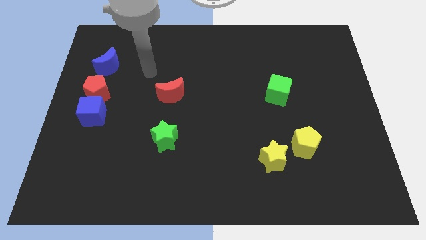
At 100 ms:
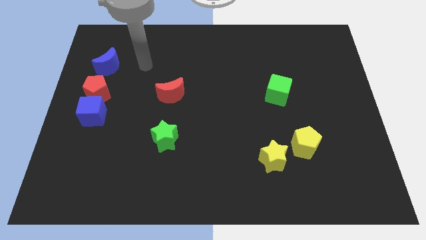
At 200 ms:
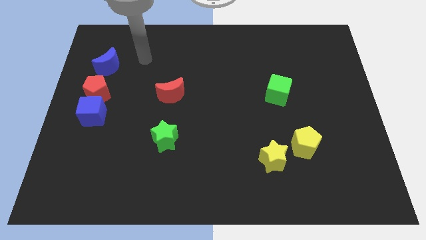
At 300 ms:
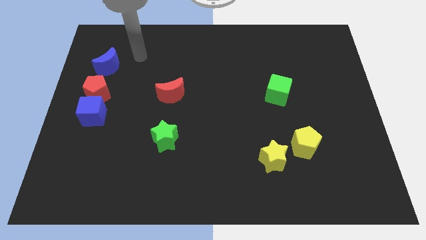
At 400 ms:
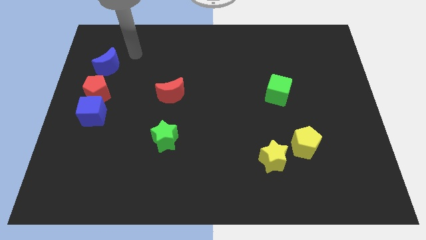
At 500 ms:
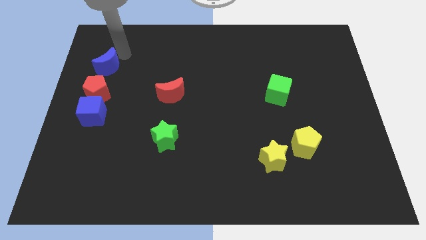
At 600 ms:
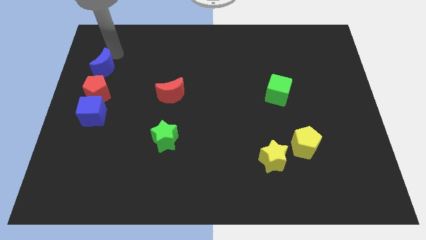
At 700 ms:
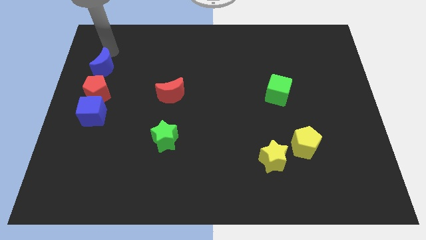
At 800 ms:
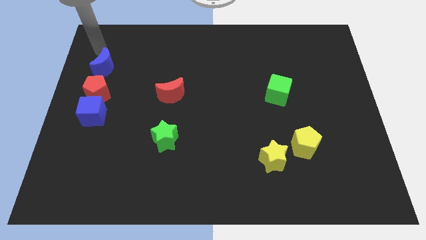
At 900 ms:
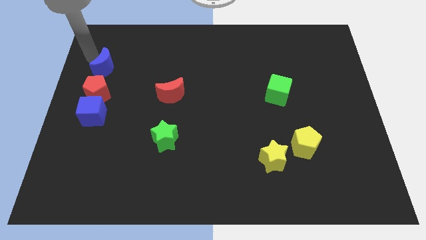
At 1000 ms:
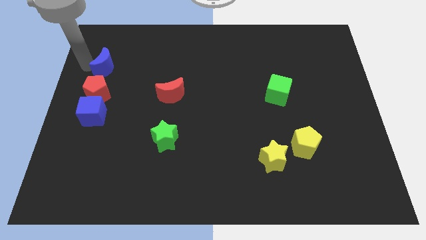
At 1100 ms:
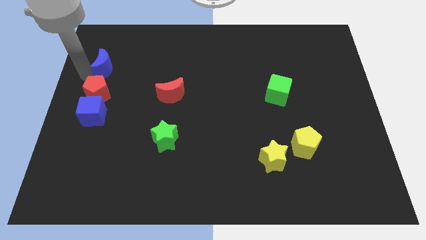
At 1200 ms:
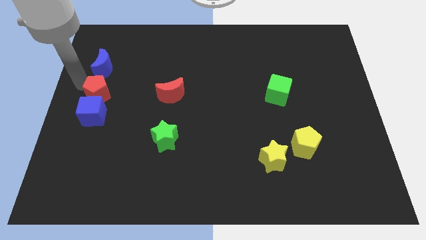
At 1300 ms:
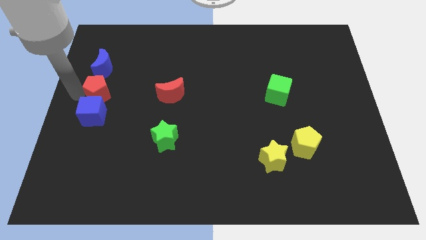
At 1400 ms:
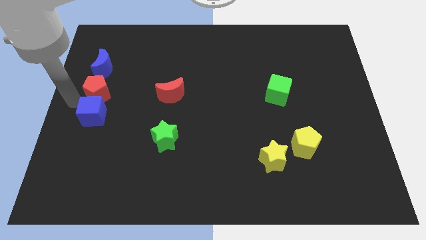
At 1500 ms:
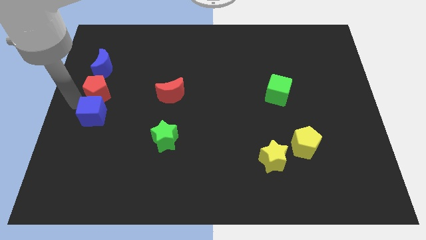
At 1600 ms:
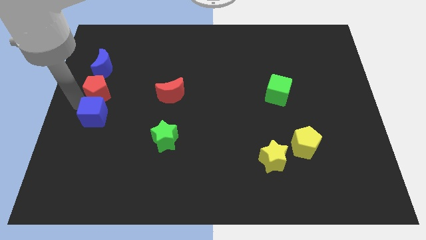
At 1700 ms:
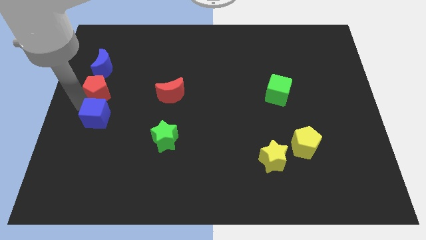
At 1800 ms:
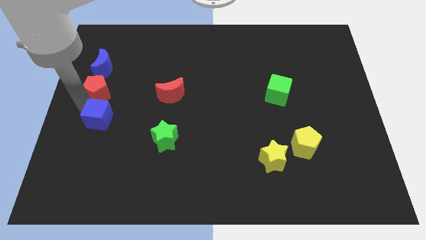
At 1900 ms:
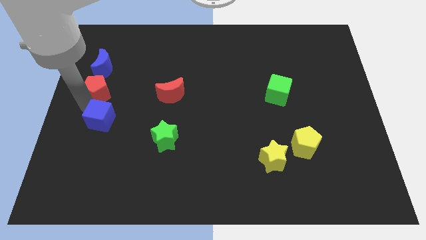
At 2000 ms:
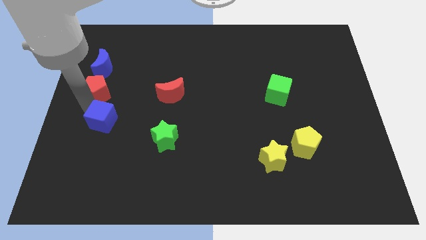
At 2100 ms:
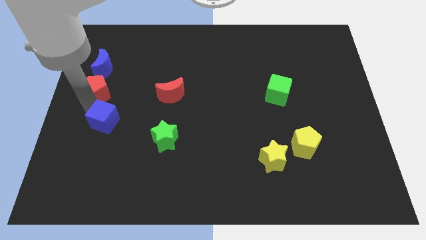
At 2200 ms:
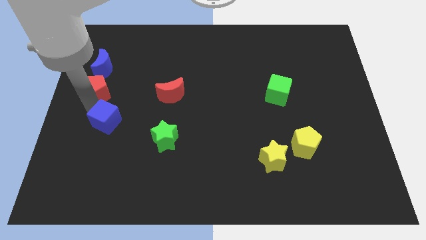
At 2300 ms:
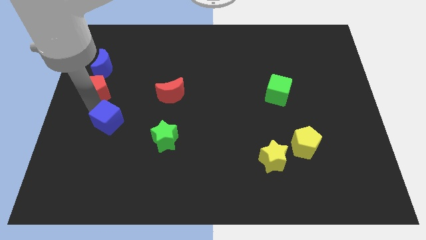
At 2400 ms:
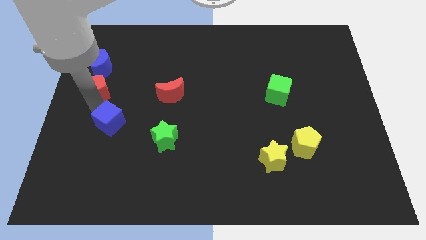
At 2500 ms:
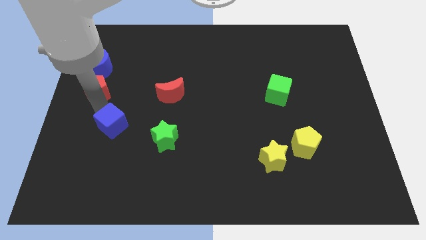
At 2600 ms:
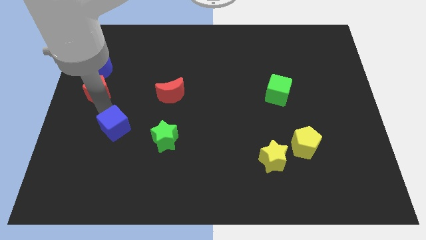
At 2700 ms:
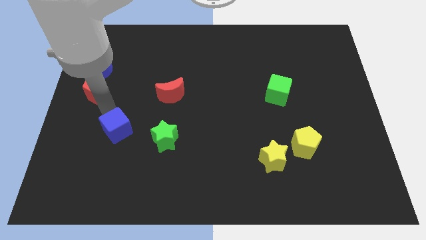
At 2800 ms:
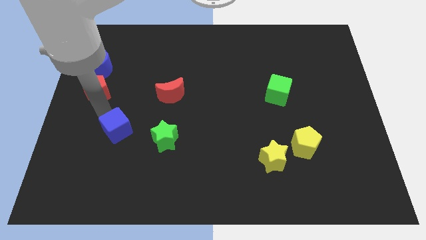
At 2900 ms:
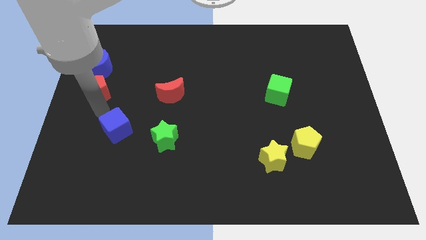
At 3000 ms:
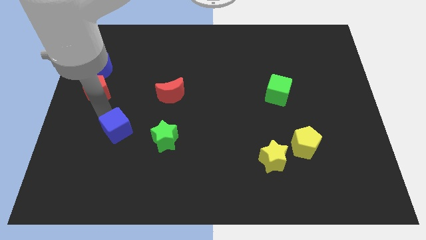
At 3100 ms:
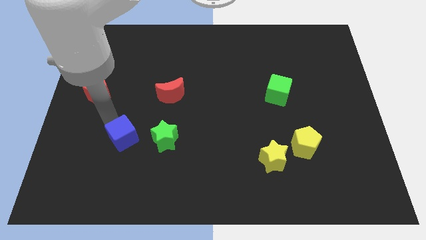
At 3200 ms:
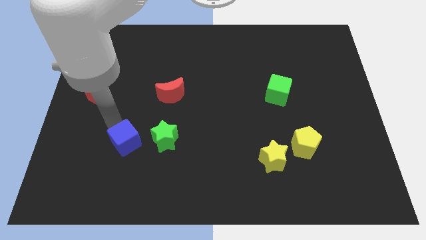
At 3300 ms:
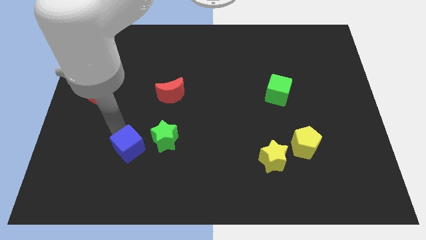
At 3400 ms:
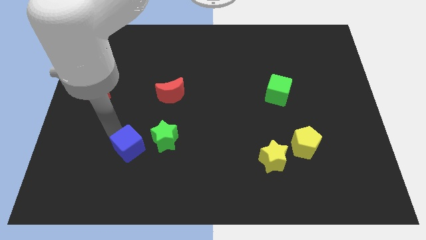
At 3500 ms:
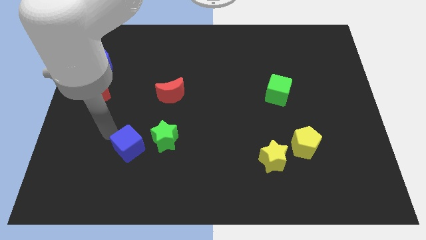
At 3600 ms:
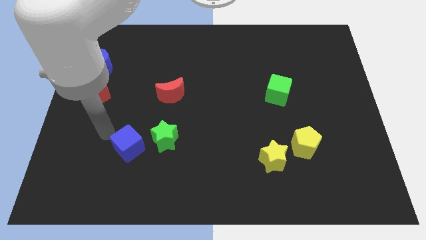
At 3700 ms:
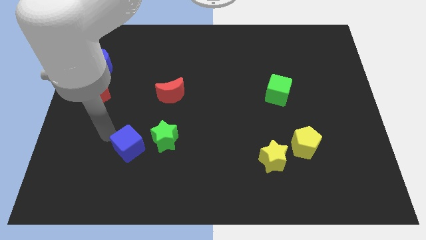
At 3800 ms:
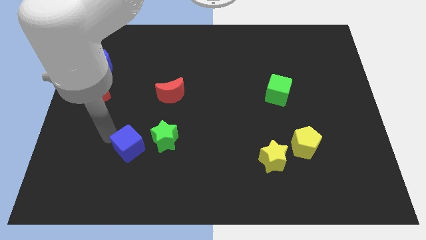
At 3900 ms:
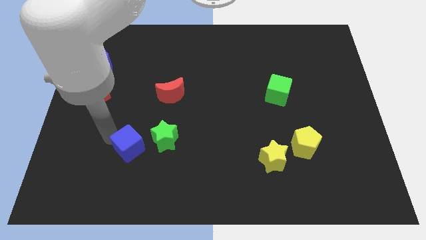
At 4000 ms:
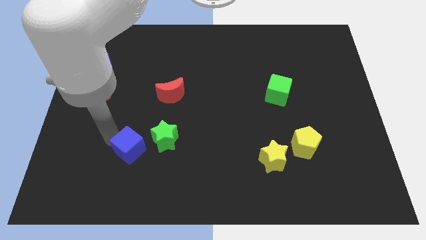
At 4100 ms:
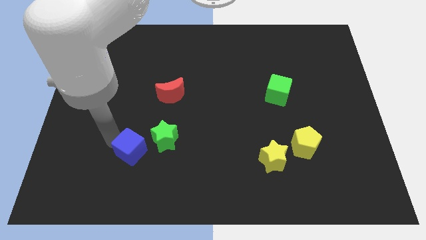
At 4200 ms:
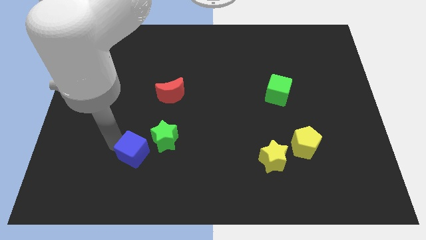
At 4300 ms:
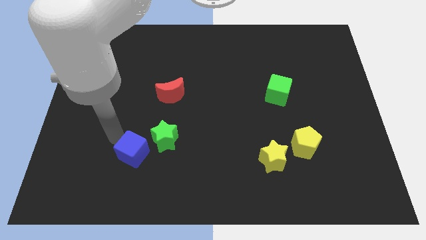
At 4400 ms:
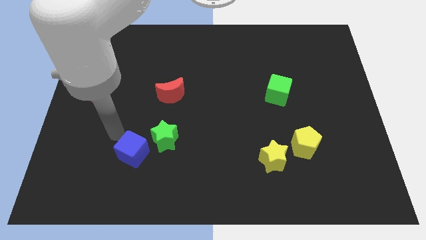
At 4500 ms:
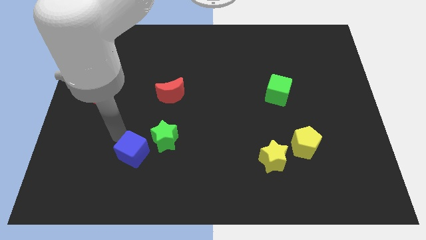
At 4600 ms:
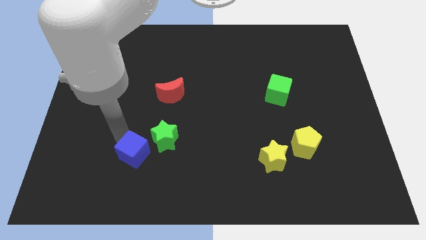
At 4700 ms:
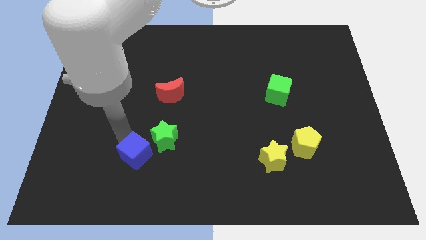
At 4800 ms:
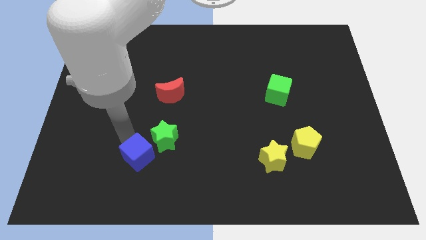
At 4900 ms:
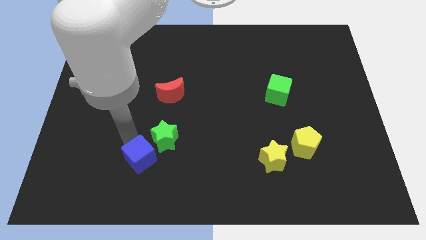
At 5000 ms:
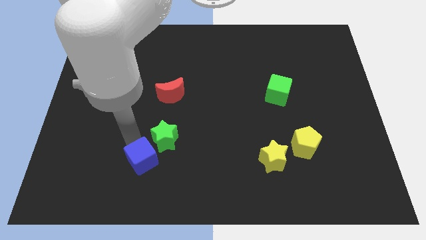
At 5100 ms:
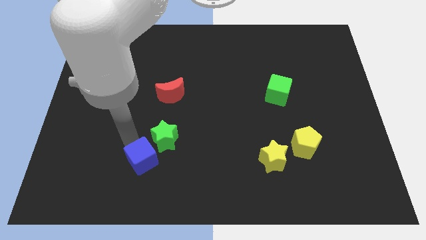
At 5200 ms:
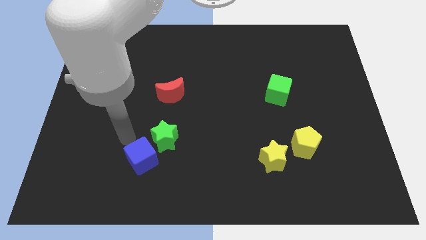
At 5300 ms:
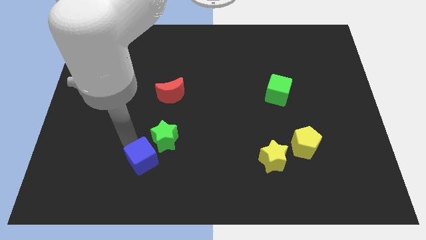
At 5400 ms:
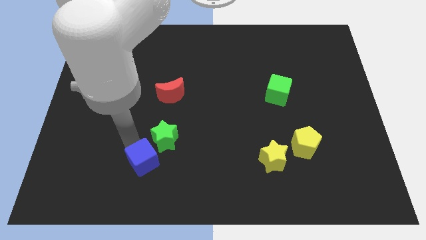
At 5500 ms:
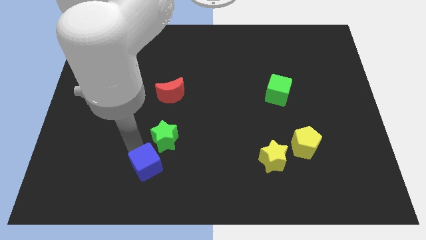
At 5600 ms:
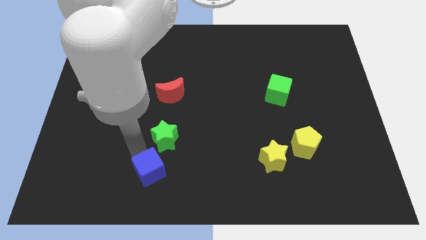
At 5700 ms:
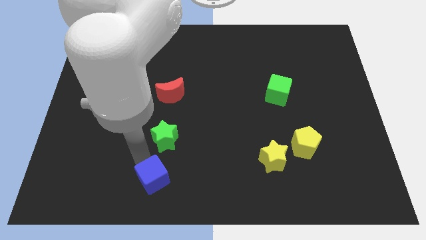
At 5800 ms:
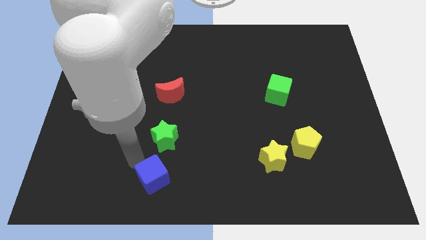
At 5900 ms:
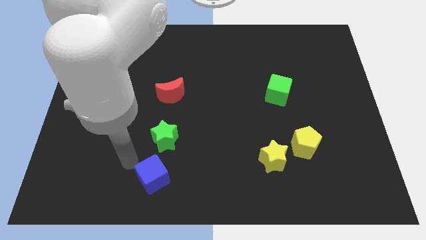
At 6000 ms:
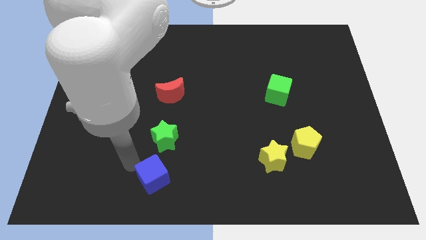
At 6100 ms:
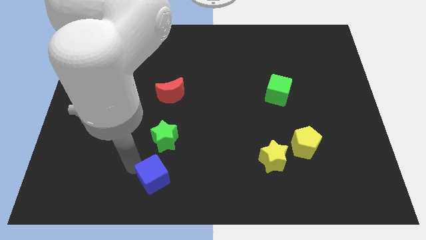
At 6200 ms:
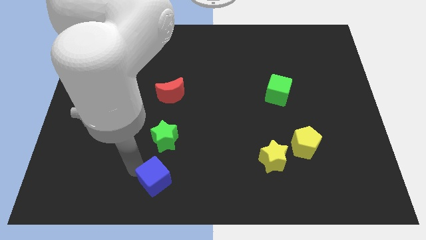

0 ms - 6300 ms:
put the blue cube to the bottom side
